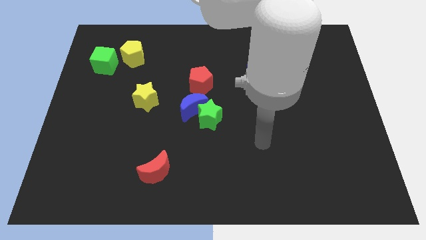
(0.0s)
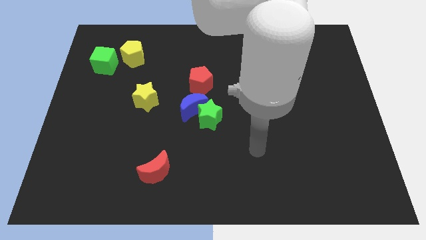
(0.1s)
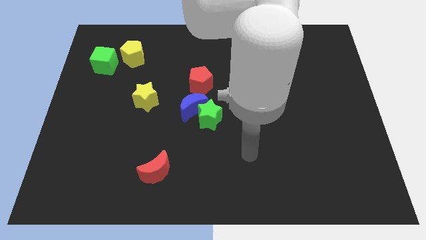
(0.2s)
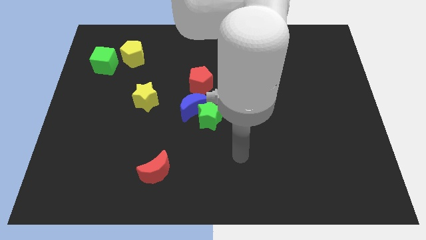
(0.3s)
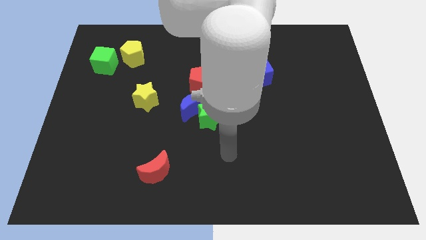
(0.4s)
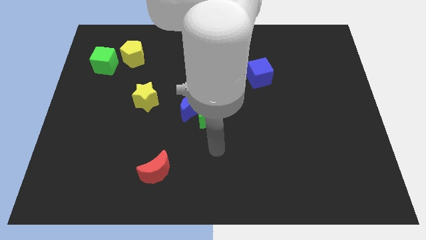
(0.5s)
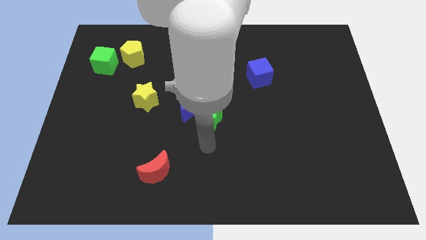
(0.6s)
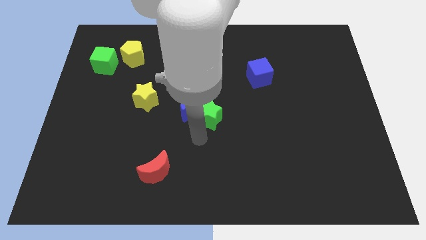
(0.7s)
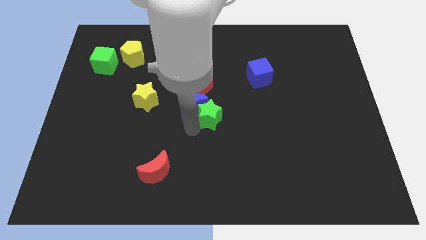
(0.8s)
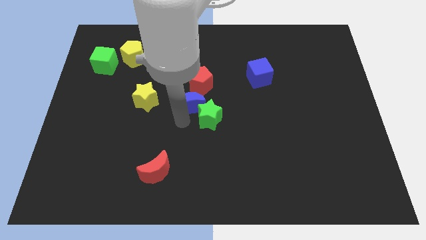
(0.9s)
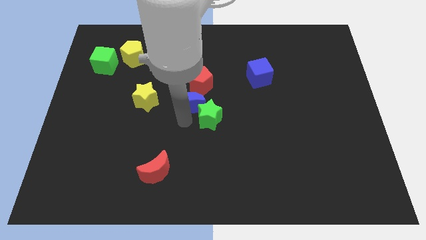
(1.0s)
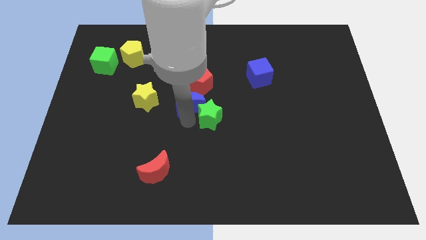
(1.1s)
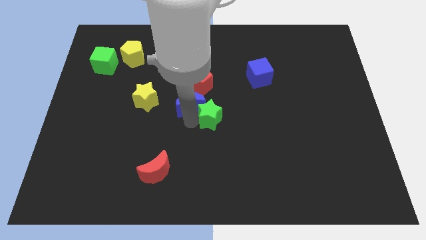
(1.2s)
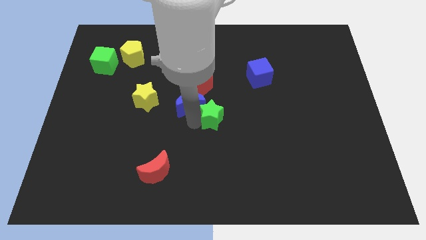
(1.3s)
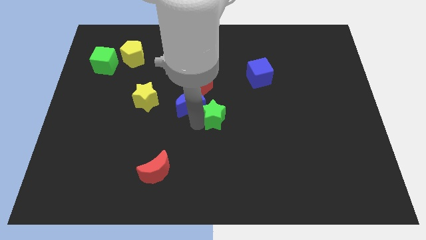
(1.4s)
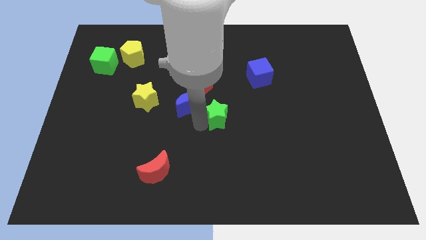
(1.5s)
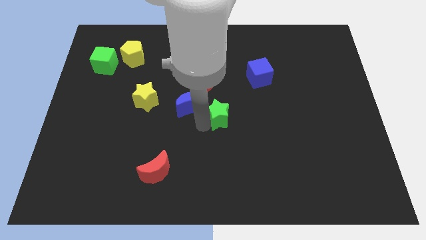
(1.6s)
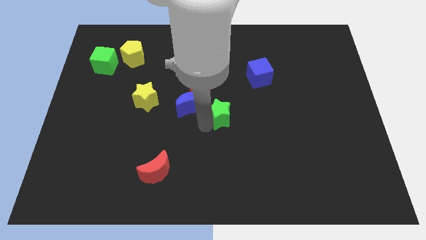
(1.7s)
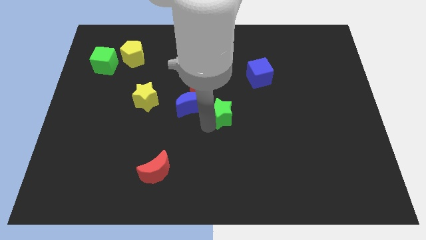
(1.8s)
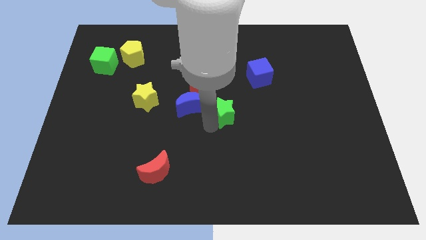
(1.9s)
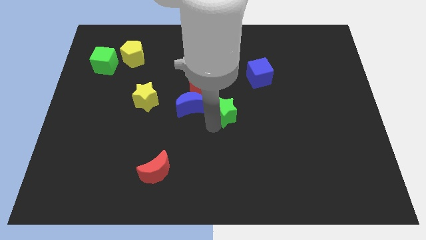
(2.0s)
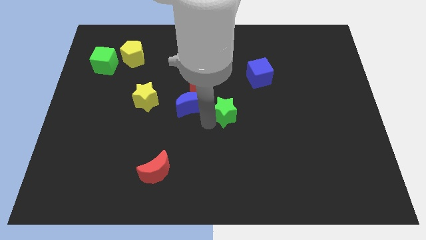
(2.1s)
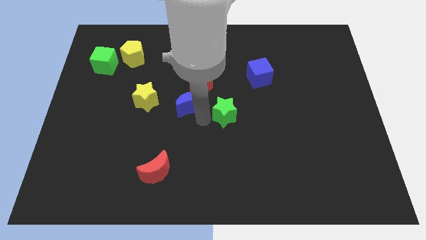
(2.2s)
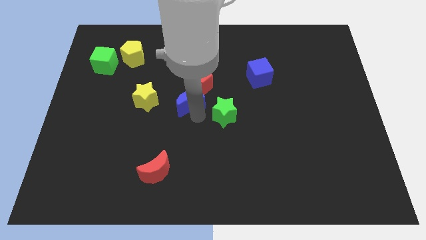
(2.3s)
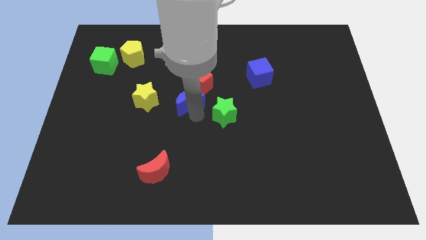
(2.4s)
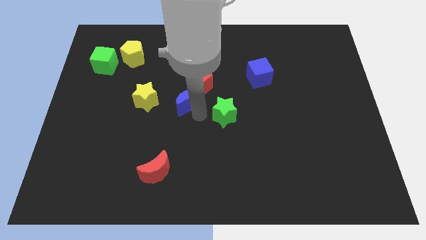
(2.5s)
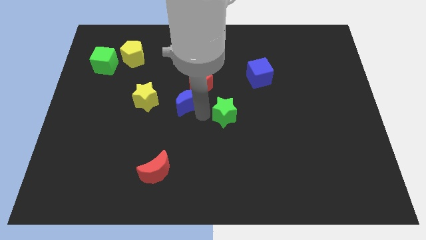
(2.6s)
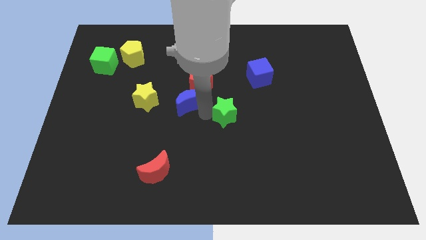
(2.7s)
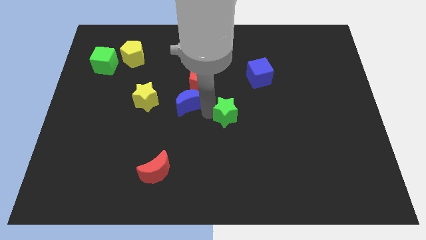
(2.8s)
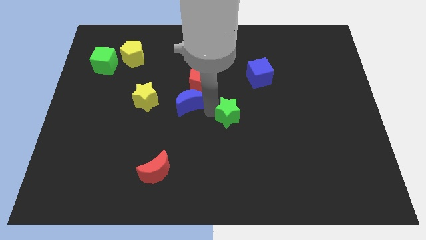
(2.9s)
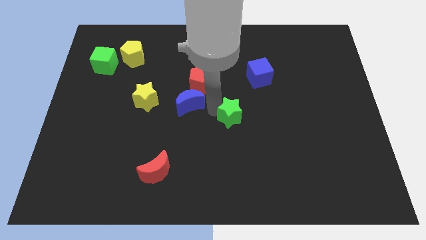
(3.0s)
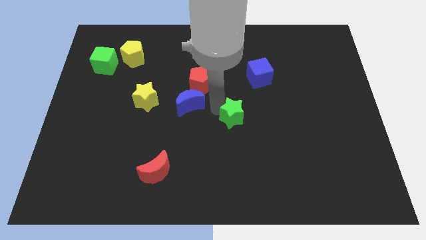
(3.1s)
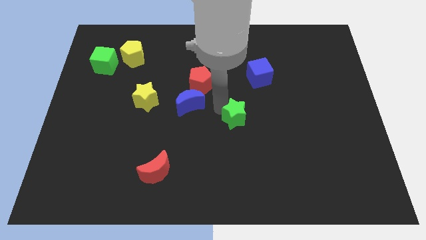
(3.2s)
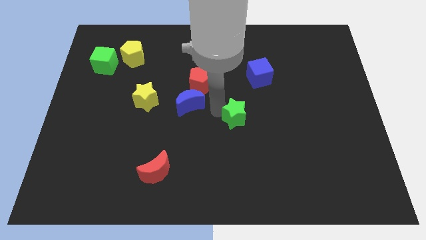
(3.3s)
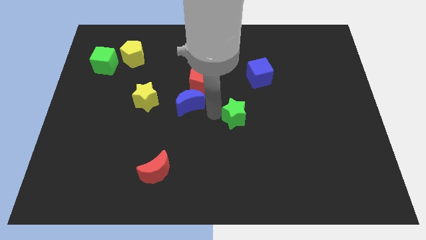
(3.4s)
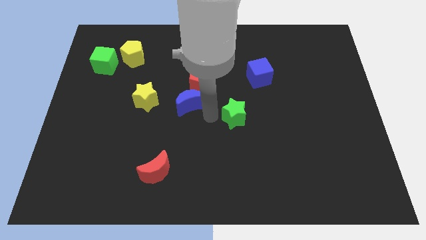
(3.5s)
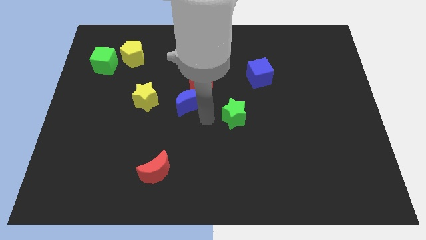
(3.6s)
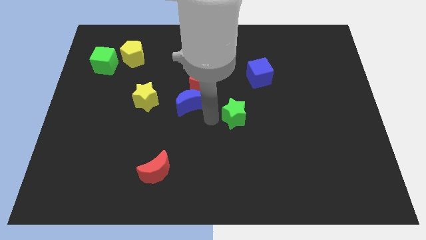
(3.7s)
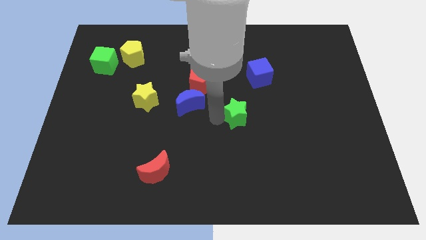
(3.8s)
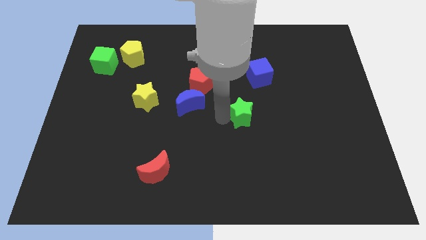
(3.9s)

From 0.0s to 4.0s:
move the green star right somewhat

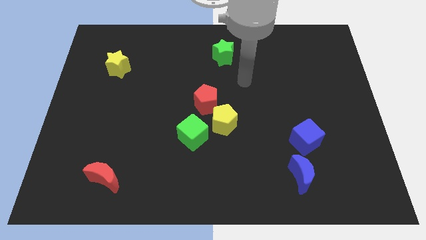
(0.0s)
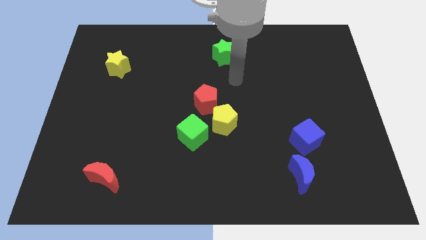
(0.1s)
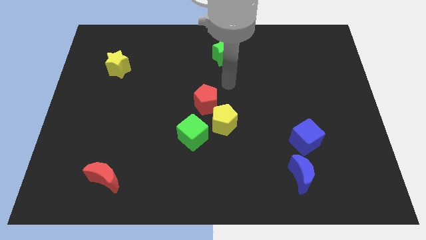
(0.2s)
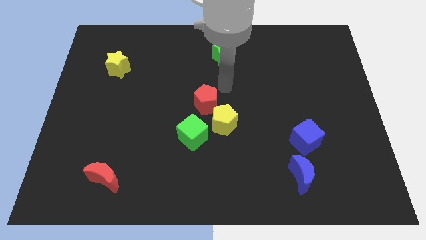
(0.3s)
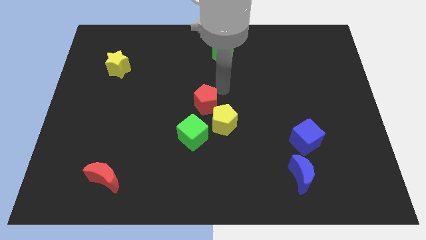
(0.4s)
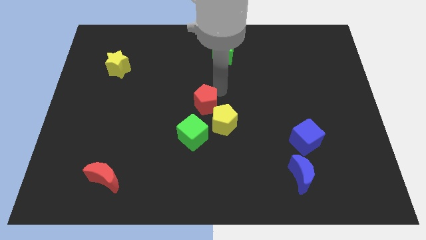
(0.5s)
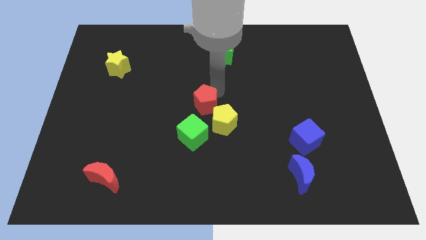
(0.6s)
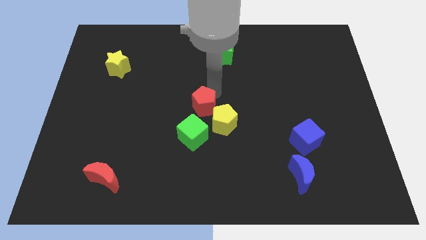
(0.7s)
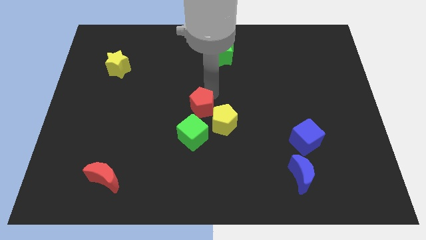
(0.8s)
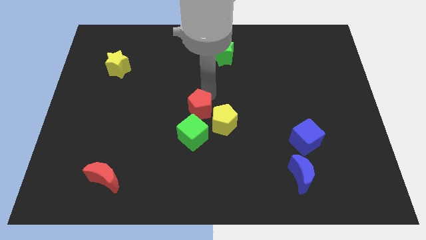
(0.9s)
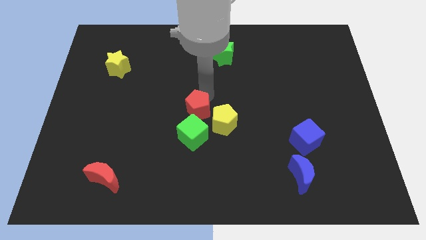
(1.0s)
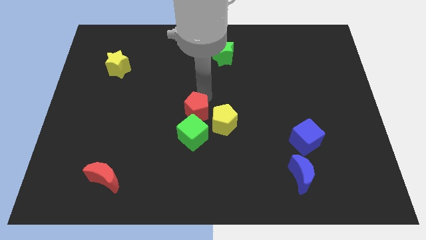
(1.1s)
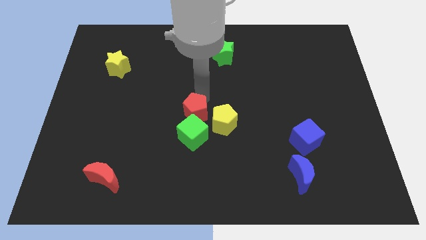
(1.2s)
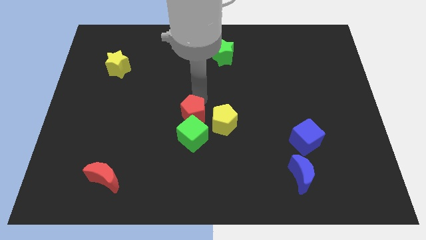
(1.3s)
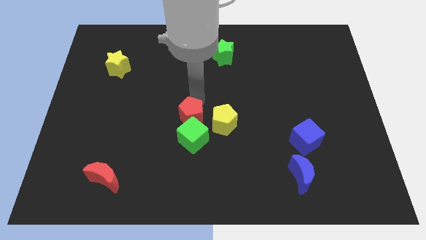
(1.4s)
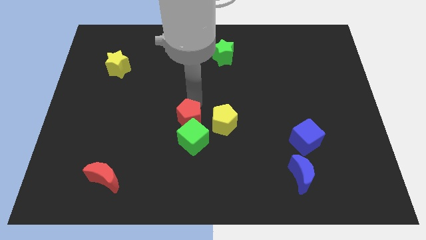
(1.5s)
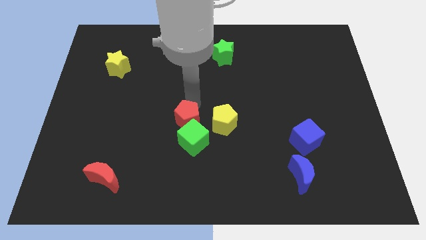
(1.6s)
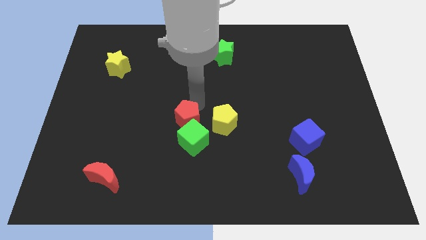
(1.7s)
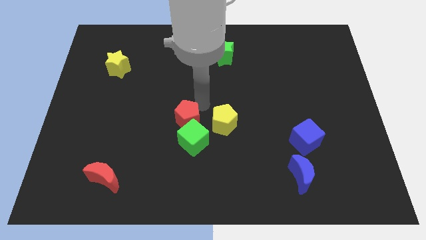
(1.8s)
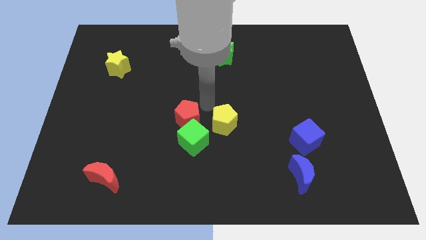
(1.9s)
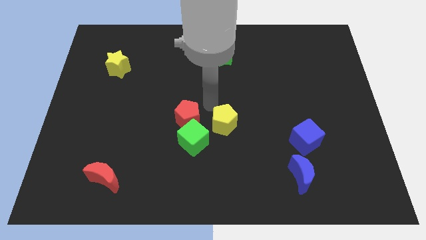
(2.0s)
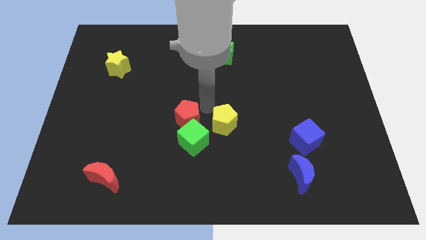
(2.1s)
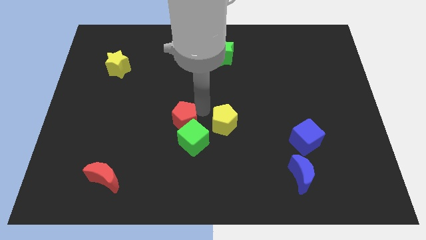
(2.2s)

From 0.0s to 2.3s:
move the red pentagon diagonally down and to the left a bit

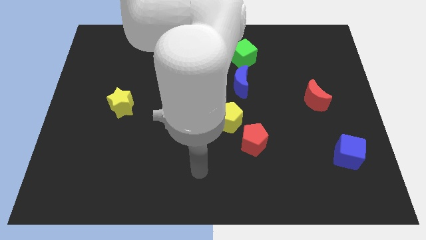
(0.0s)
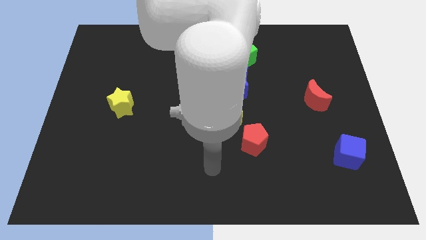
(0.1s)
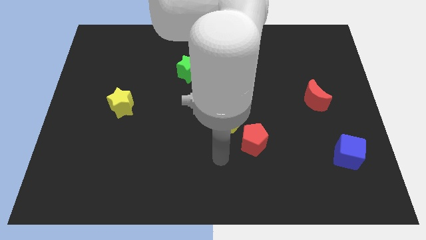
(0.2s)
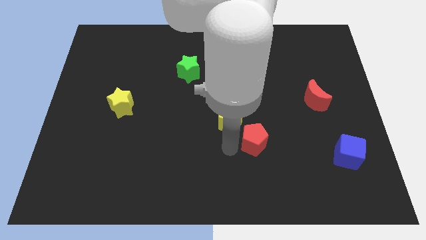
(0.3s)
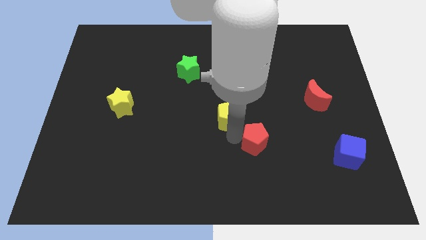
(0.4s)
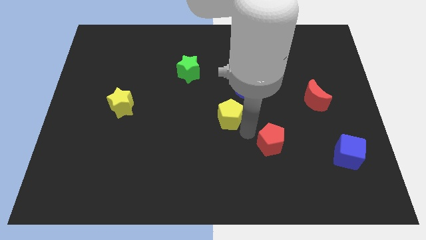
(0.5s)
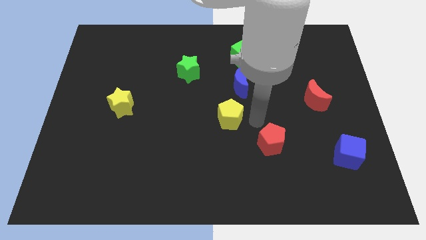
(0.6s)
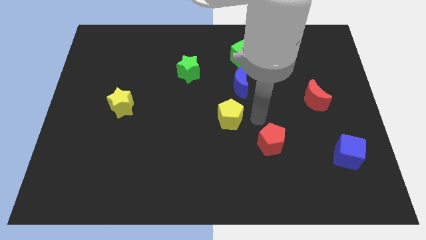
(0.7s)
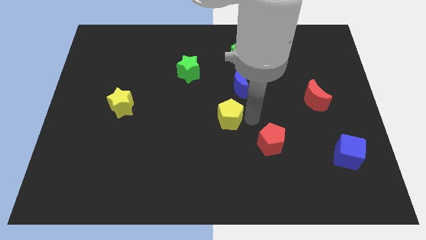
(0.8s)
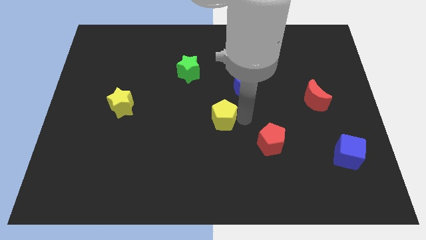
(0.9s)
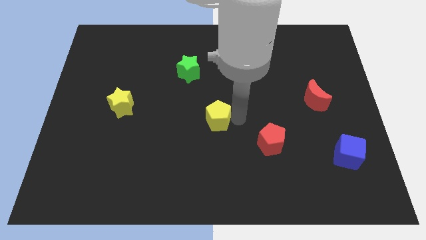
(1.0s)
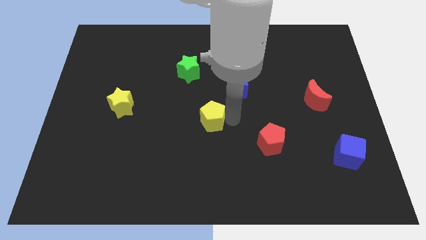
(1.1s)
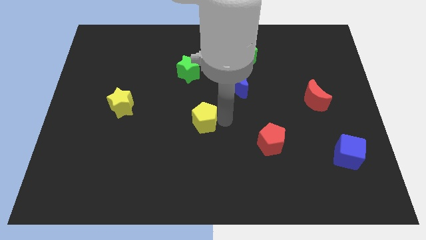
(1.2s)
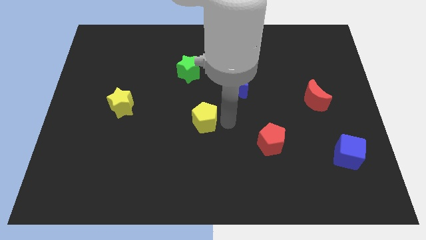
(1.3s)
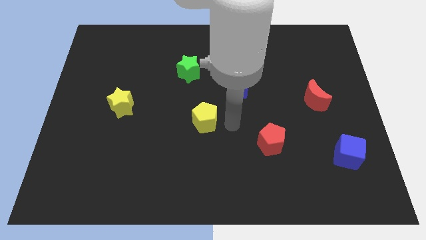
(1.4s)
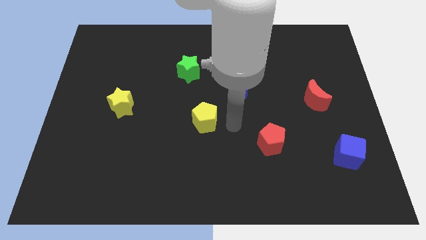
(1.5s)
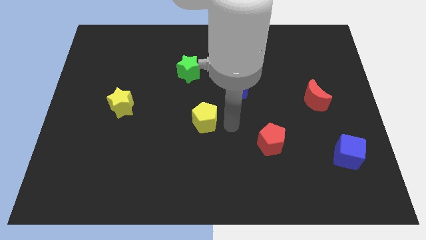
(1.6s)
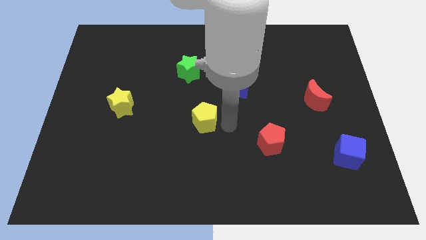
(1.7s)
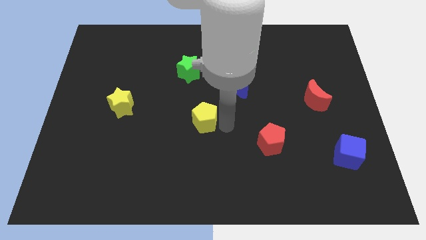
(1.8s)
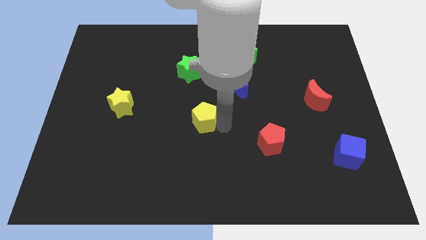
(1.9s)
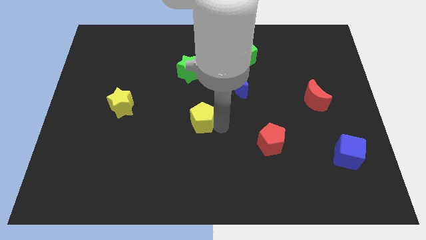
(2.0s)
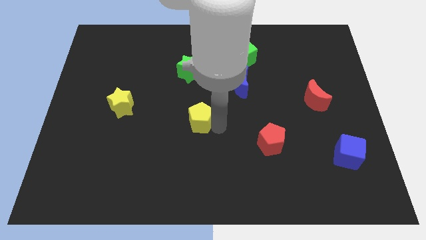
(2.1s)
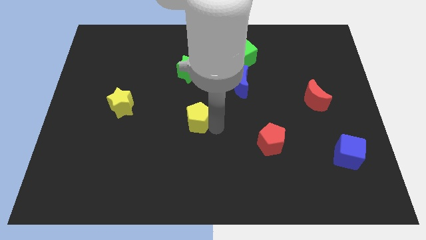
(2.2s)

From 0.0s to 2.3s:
slide the yellow pentagon to the left a bit
